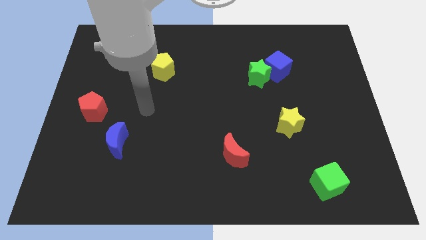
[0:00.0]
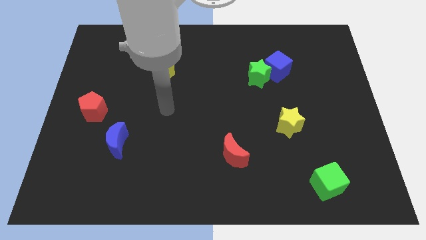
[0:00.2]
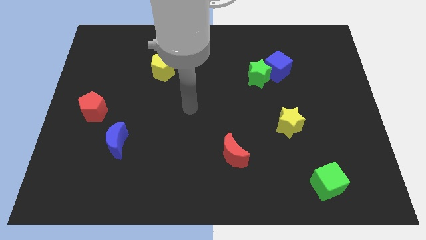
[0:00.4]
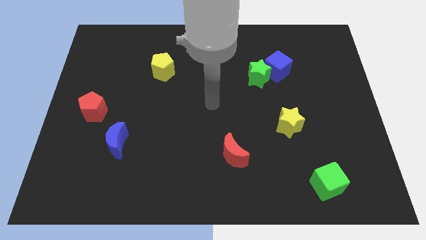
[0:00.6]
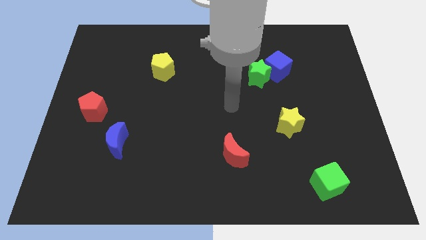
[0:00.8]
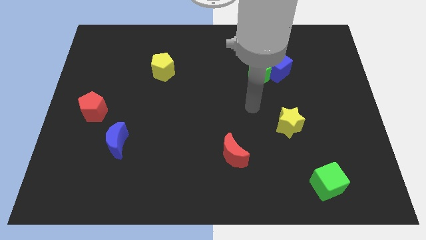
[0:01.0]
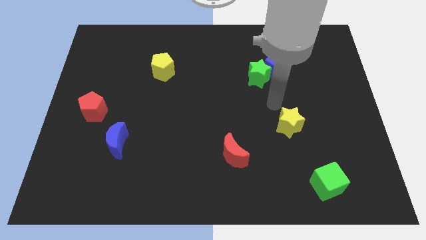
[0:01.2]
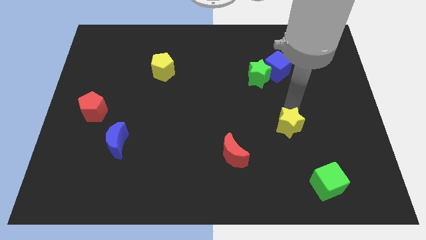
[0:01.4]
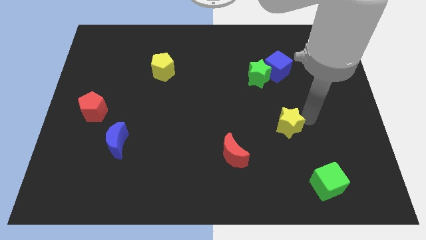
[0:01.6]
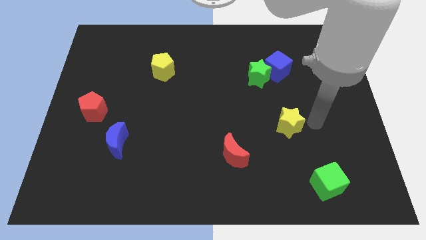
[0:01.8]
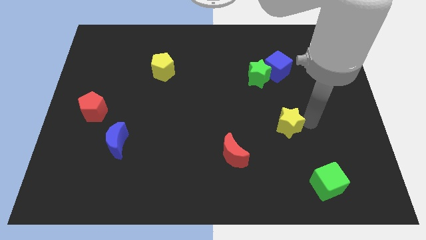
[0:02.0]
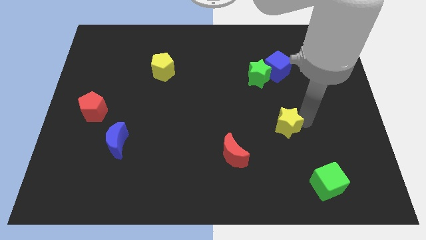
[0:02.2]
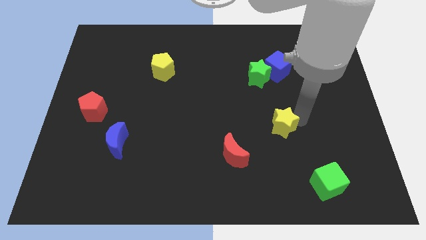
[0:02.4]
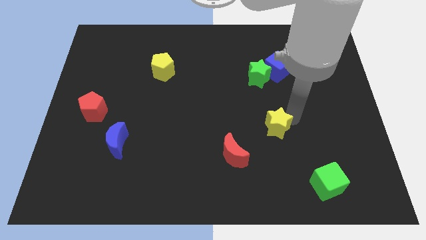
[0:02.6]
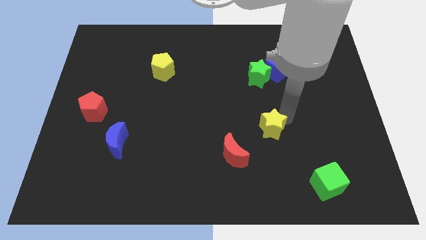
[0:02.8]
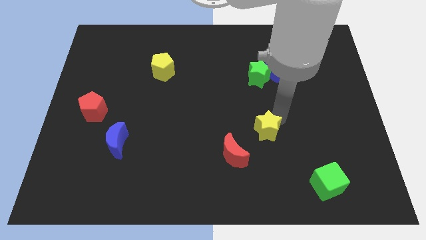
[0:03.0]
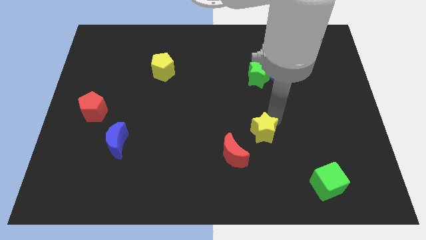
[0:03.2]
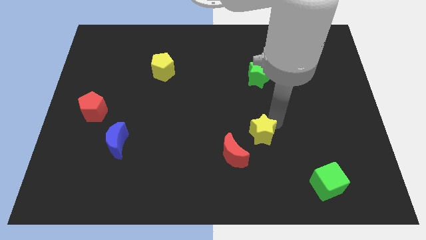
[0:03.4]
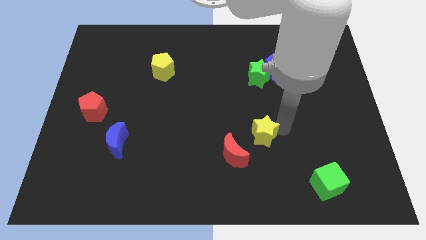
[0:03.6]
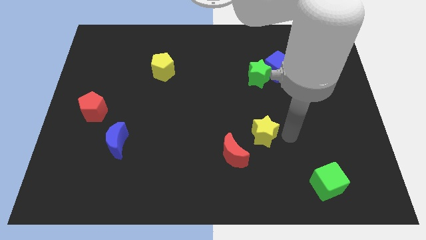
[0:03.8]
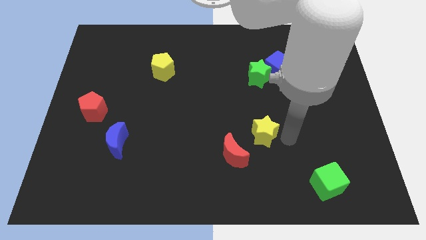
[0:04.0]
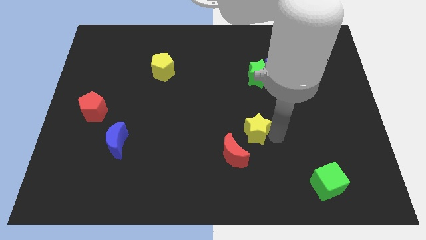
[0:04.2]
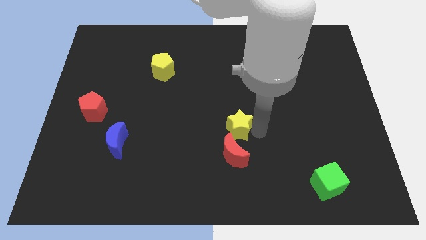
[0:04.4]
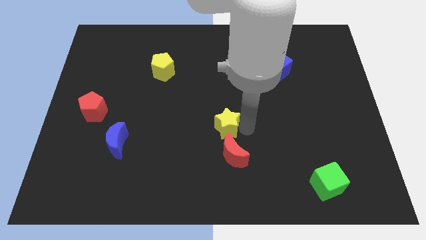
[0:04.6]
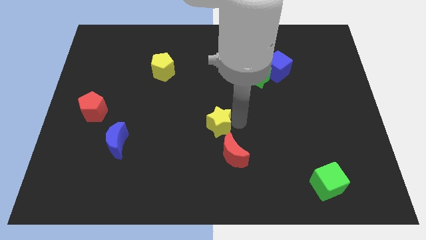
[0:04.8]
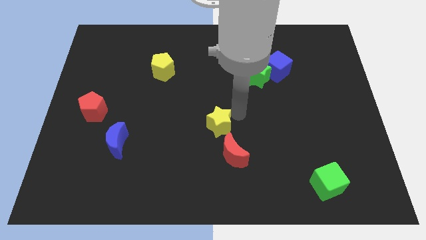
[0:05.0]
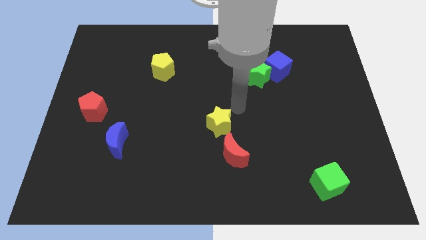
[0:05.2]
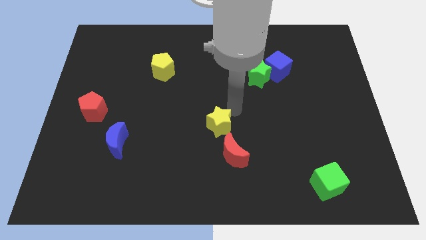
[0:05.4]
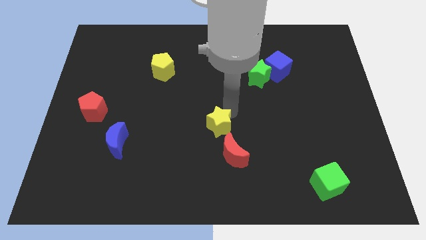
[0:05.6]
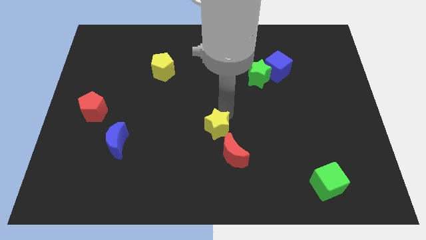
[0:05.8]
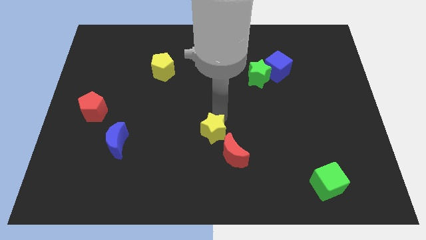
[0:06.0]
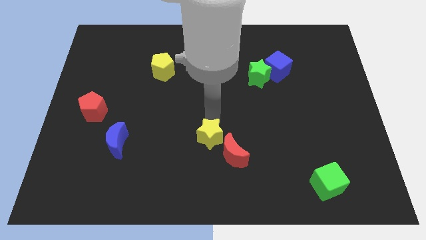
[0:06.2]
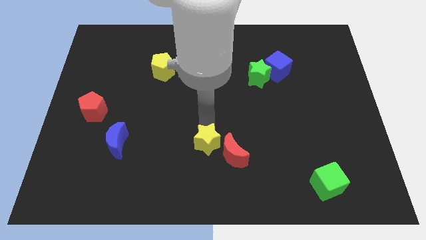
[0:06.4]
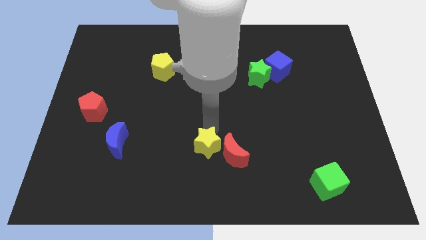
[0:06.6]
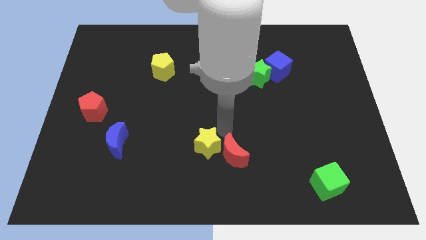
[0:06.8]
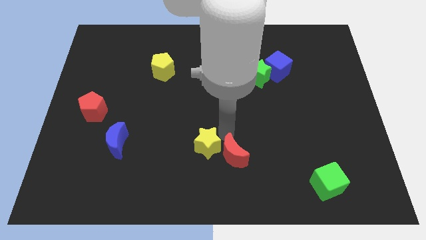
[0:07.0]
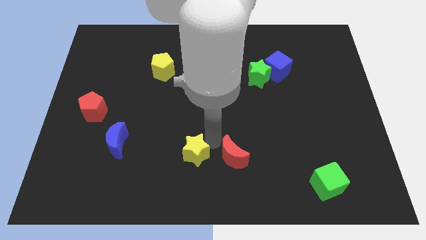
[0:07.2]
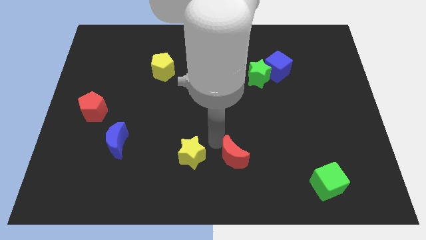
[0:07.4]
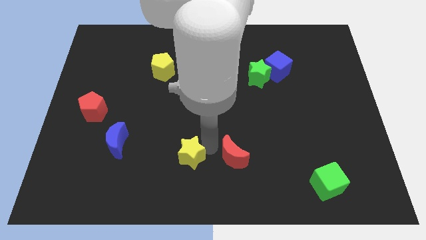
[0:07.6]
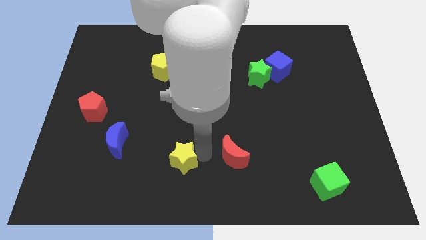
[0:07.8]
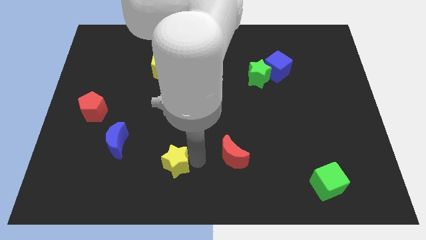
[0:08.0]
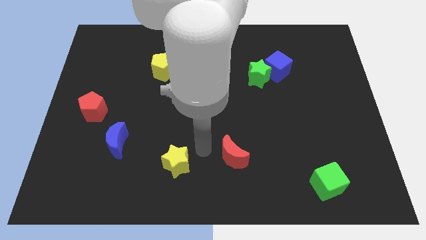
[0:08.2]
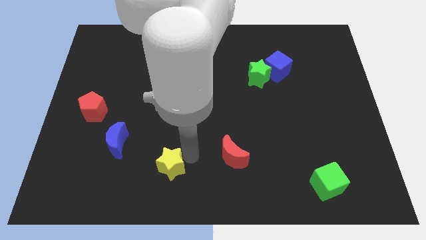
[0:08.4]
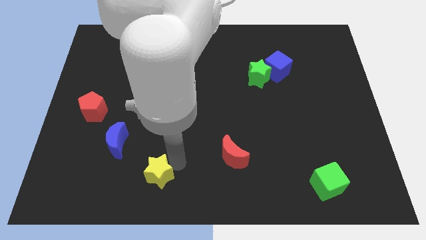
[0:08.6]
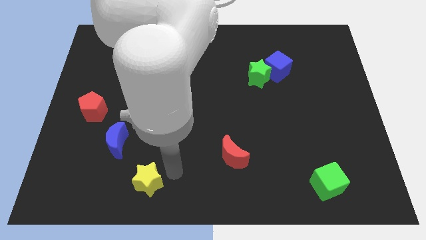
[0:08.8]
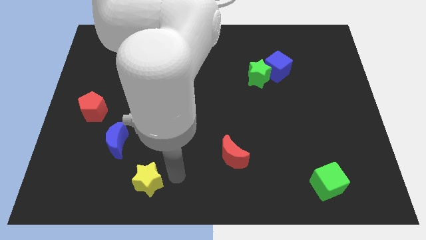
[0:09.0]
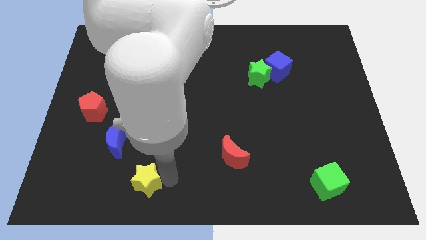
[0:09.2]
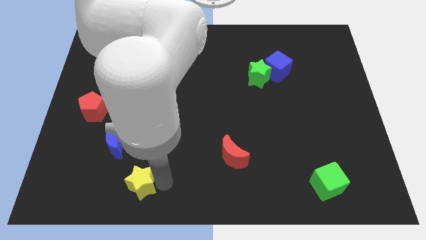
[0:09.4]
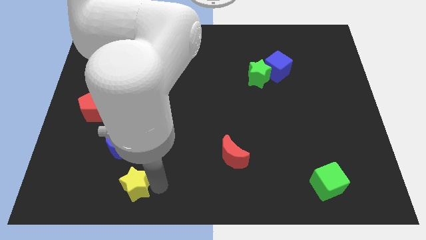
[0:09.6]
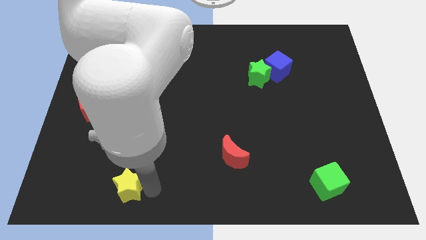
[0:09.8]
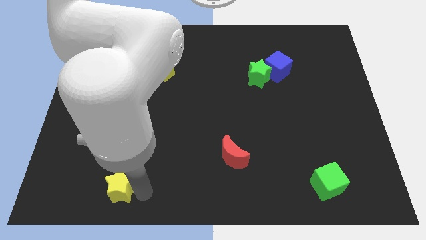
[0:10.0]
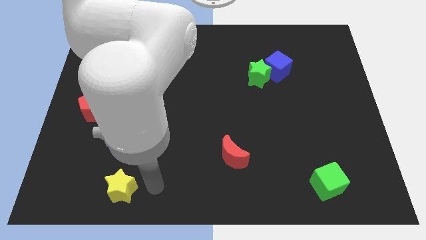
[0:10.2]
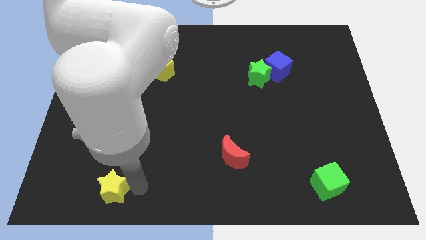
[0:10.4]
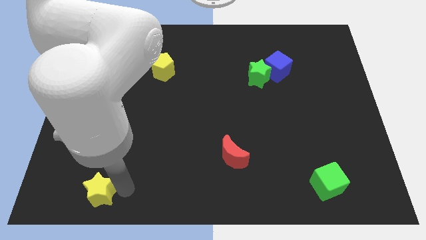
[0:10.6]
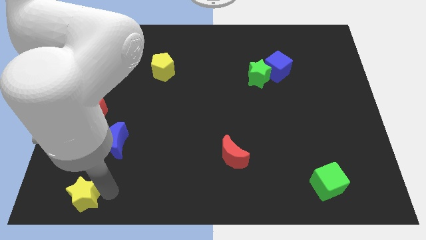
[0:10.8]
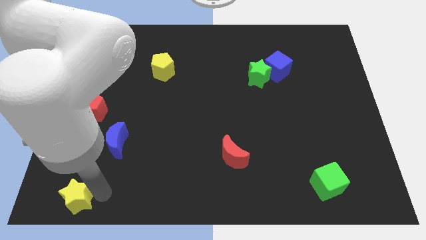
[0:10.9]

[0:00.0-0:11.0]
slide the yellow star to the bottom left of the board

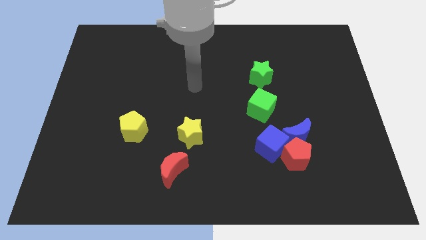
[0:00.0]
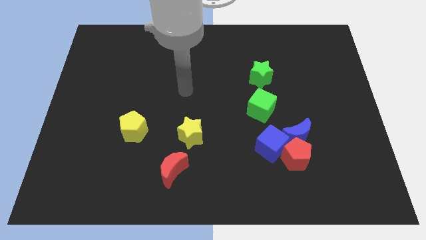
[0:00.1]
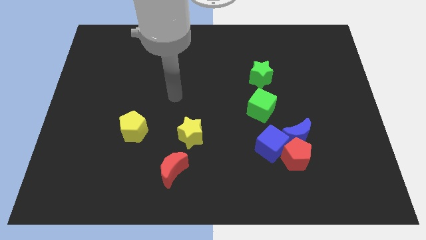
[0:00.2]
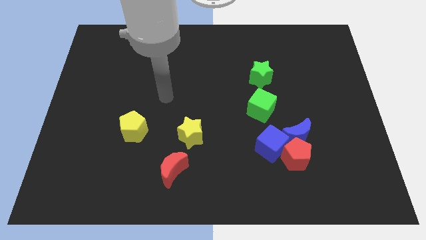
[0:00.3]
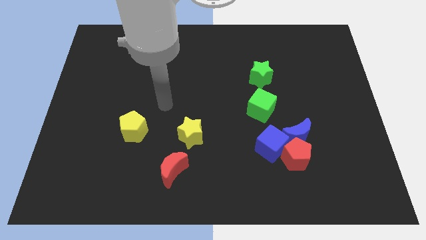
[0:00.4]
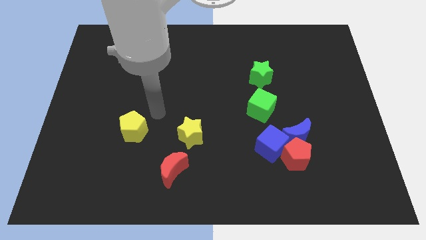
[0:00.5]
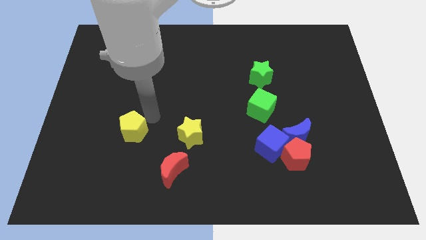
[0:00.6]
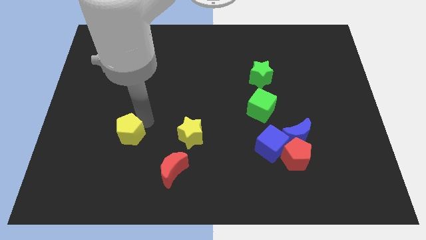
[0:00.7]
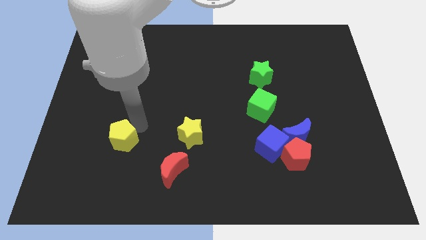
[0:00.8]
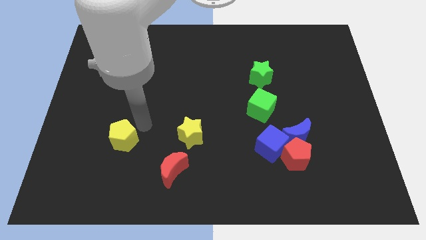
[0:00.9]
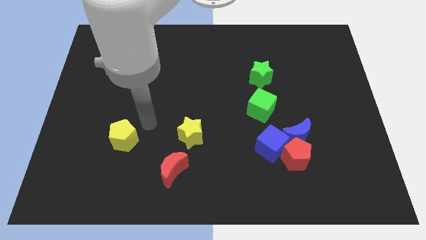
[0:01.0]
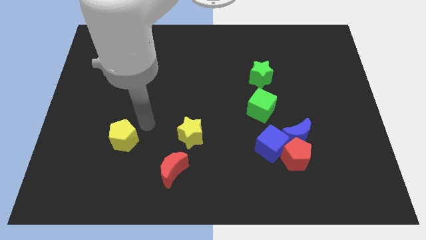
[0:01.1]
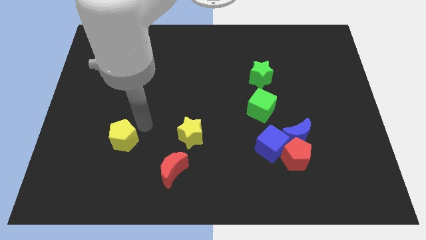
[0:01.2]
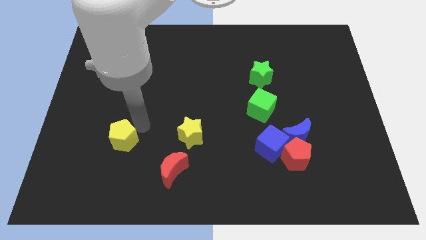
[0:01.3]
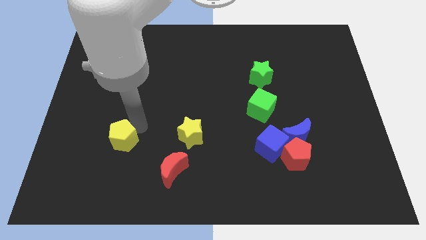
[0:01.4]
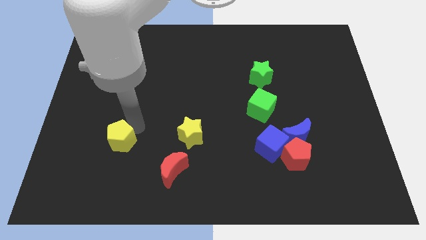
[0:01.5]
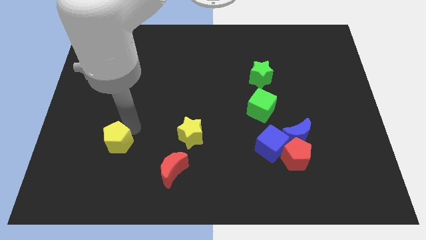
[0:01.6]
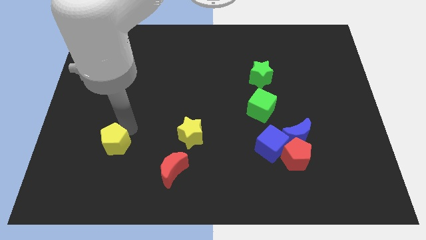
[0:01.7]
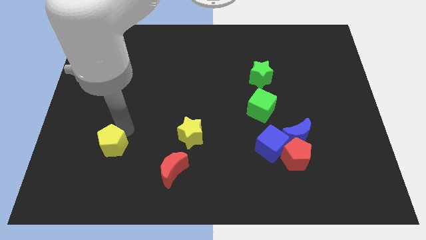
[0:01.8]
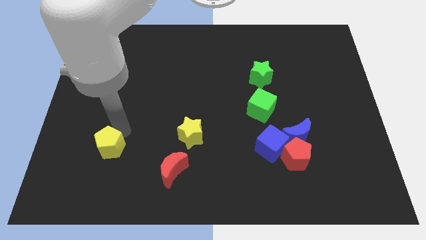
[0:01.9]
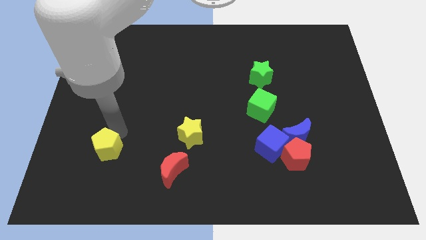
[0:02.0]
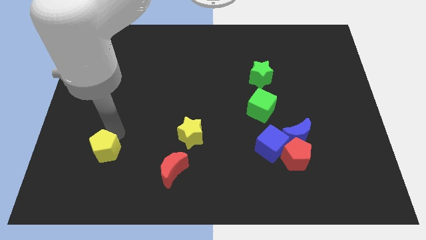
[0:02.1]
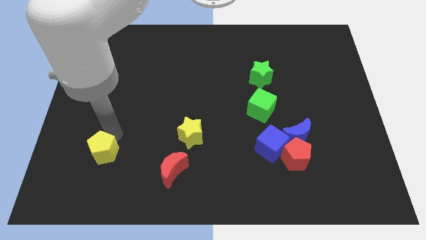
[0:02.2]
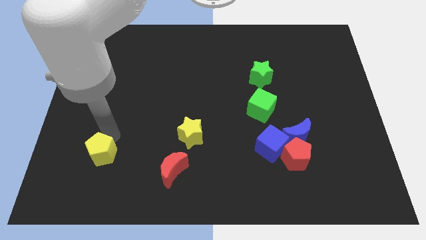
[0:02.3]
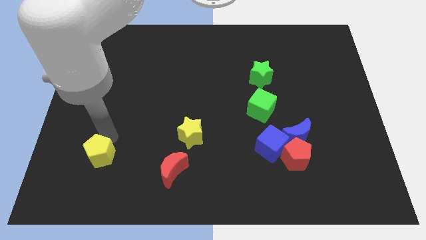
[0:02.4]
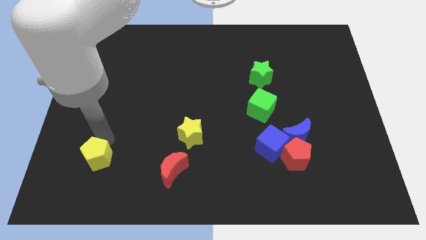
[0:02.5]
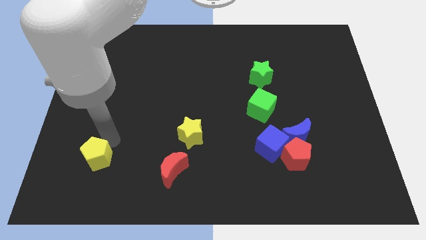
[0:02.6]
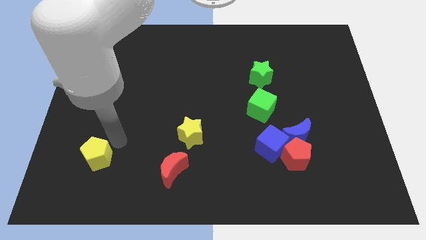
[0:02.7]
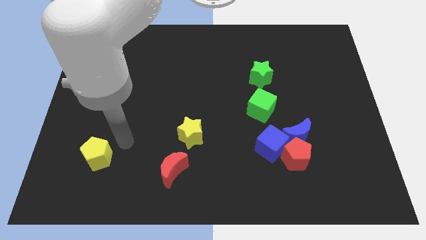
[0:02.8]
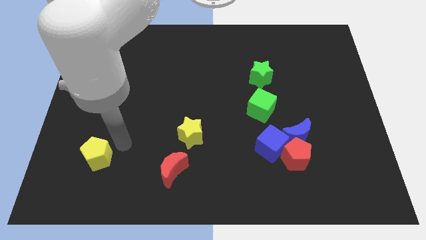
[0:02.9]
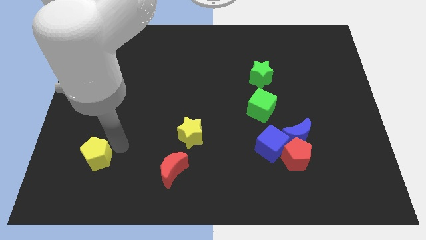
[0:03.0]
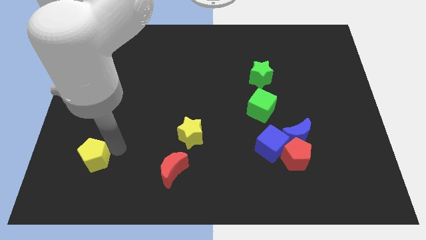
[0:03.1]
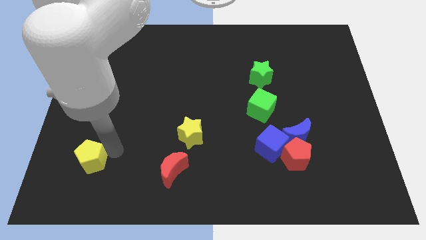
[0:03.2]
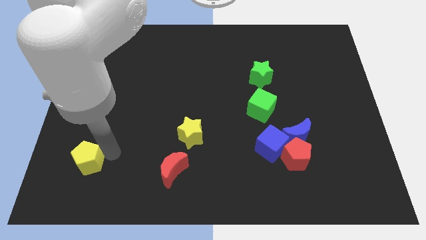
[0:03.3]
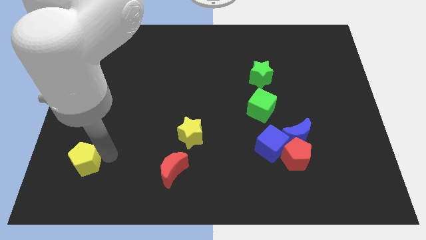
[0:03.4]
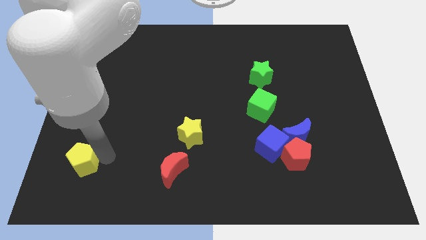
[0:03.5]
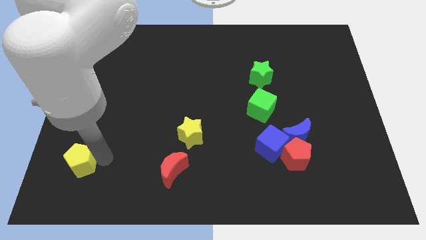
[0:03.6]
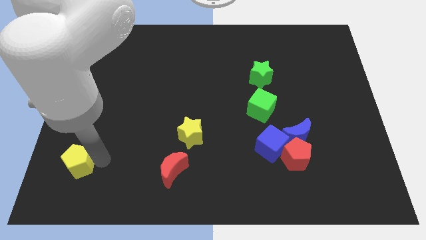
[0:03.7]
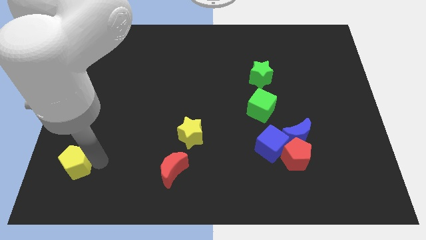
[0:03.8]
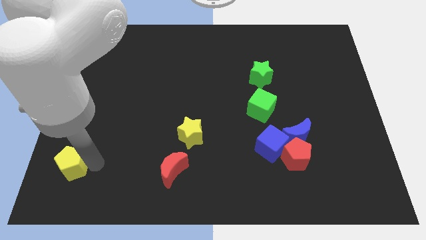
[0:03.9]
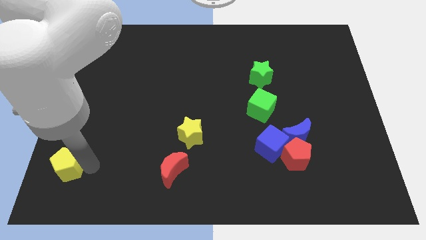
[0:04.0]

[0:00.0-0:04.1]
push the yellow pentagon to the lower left corner
